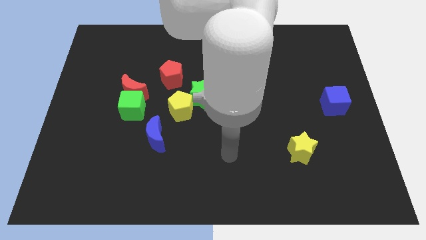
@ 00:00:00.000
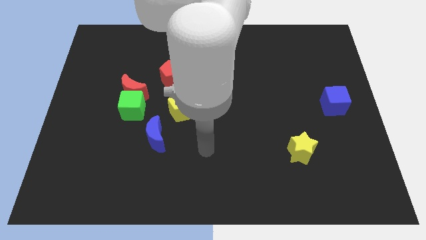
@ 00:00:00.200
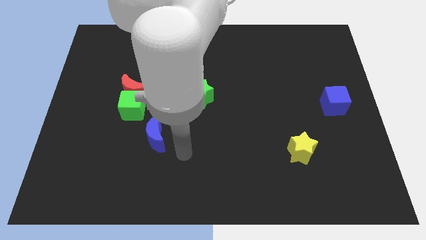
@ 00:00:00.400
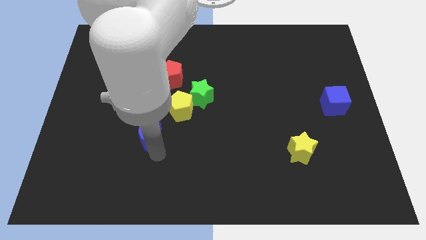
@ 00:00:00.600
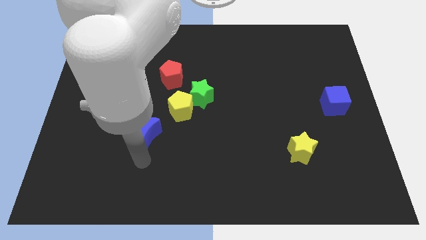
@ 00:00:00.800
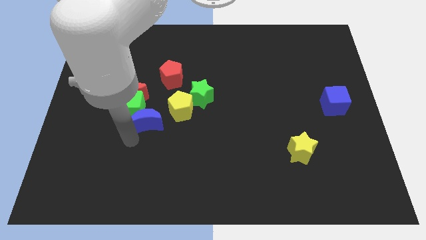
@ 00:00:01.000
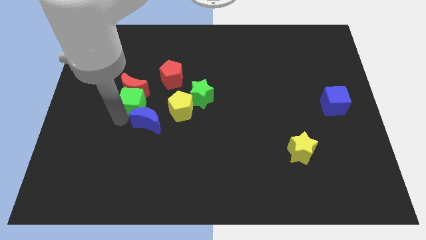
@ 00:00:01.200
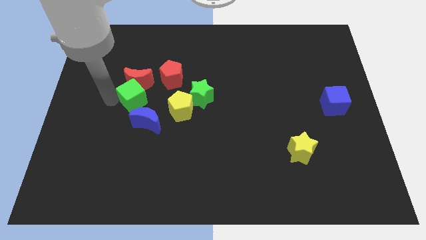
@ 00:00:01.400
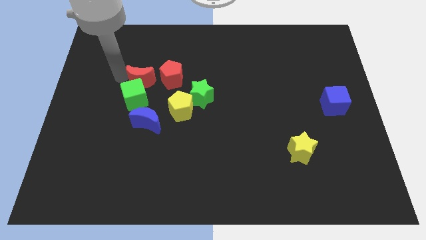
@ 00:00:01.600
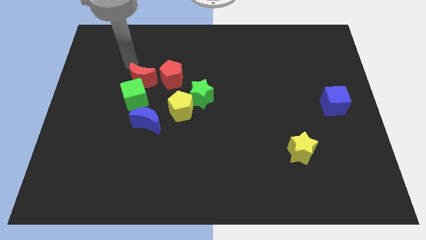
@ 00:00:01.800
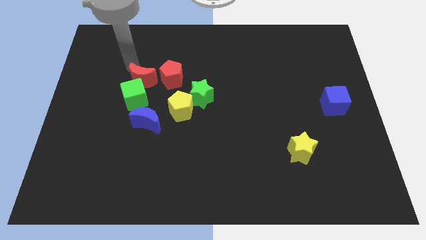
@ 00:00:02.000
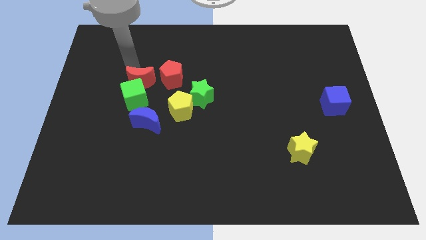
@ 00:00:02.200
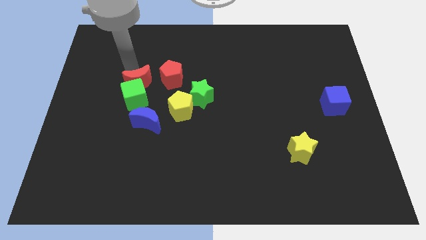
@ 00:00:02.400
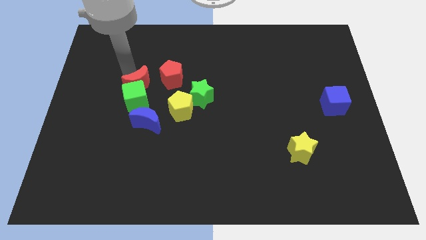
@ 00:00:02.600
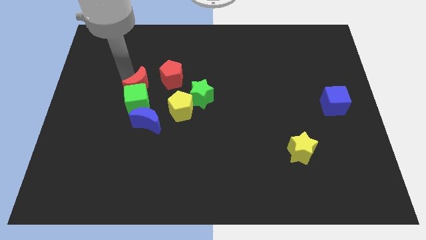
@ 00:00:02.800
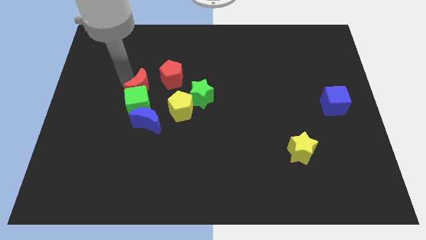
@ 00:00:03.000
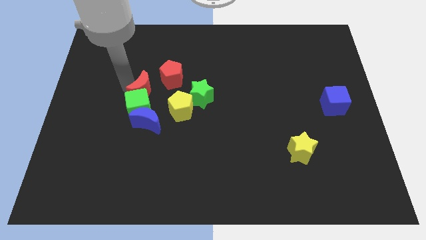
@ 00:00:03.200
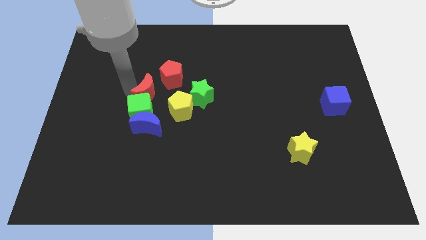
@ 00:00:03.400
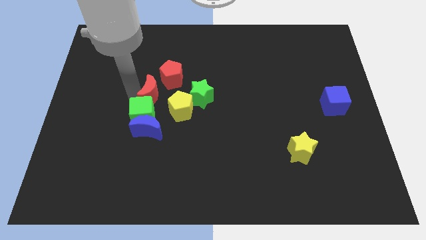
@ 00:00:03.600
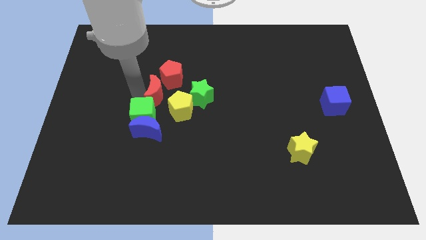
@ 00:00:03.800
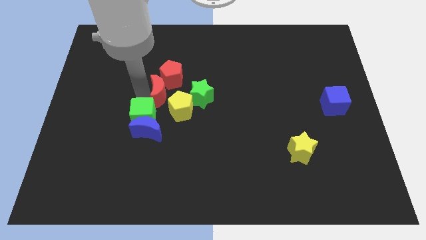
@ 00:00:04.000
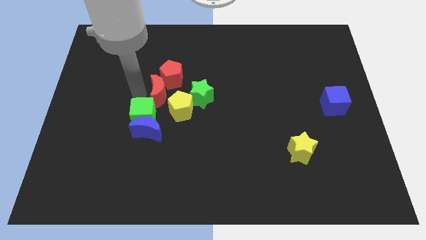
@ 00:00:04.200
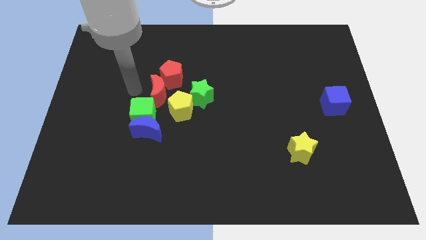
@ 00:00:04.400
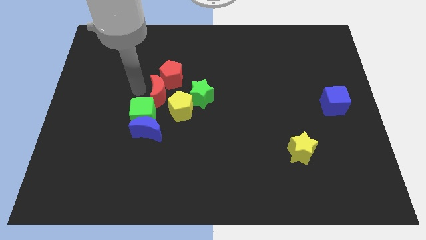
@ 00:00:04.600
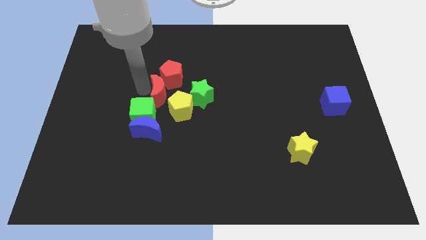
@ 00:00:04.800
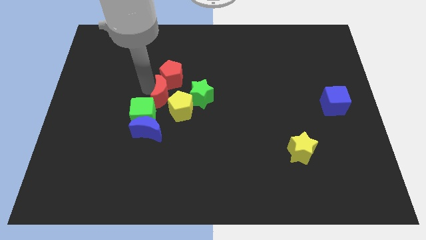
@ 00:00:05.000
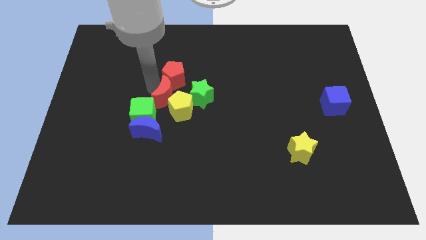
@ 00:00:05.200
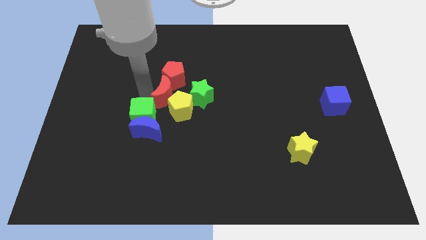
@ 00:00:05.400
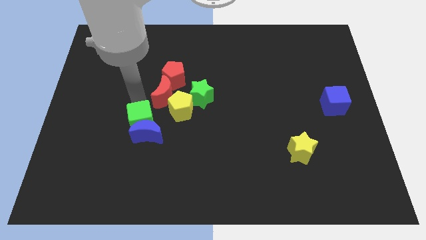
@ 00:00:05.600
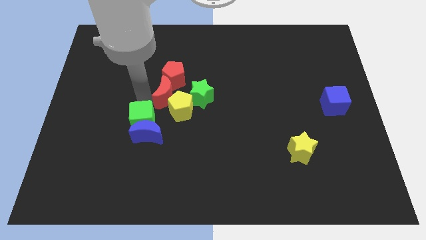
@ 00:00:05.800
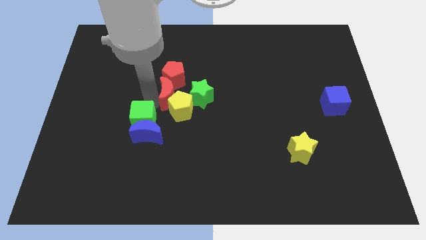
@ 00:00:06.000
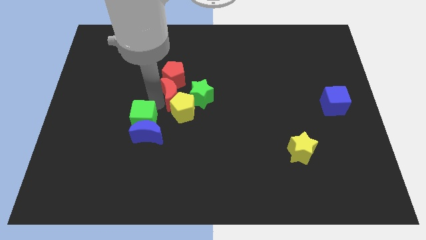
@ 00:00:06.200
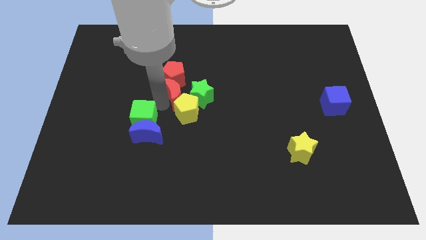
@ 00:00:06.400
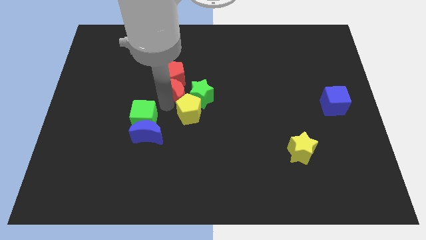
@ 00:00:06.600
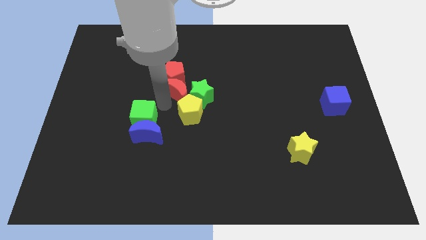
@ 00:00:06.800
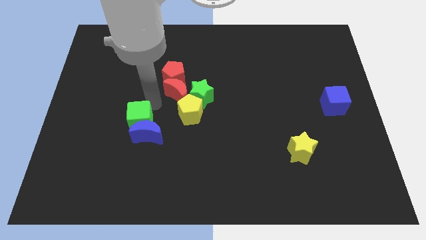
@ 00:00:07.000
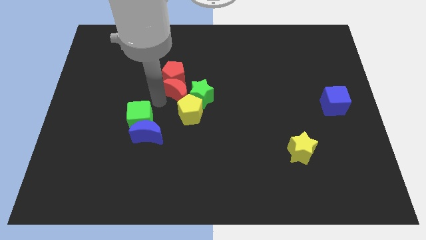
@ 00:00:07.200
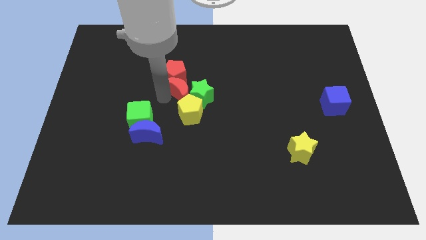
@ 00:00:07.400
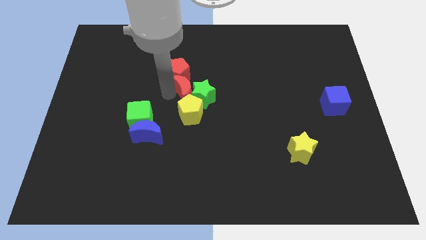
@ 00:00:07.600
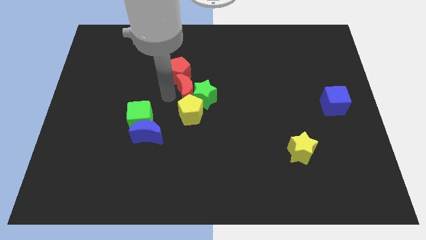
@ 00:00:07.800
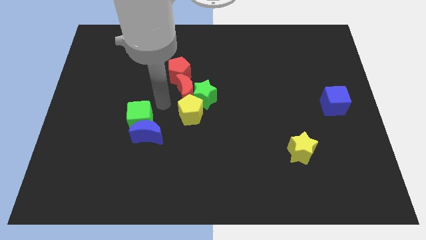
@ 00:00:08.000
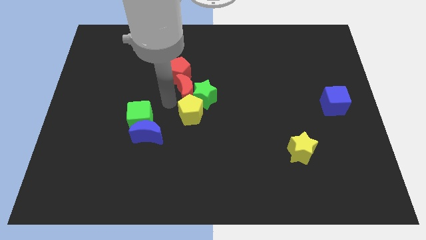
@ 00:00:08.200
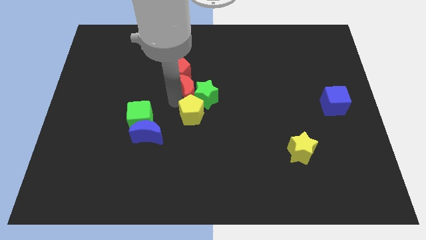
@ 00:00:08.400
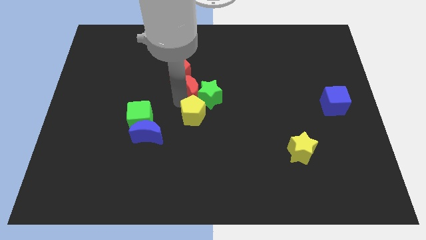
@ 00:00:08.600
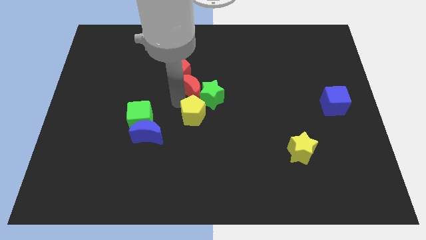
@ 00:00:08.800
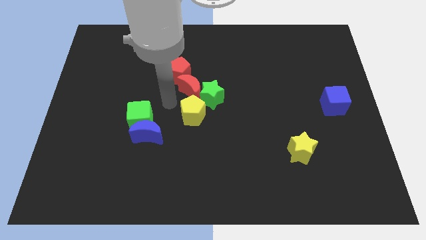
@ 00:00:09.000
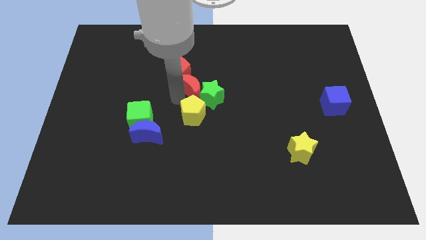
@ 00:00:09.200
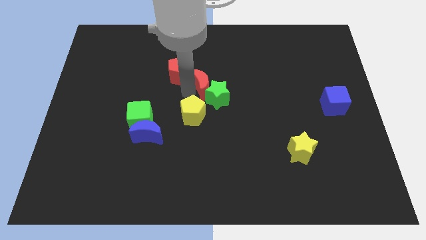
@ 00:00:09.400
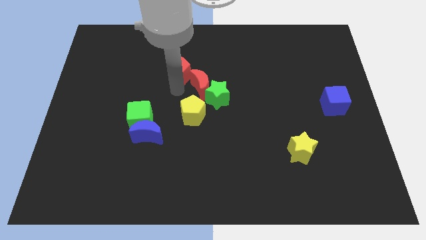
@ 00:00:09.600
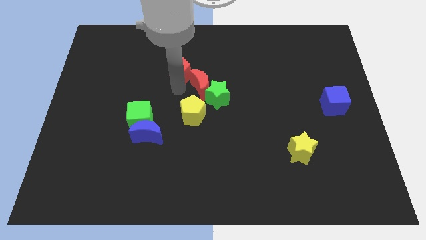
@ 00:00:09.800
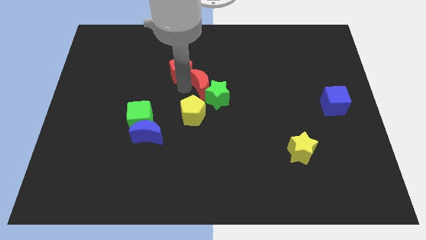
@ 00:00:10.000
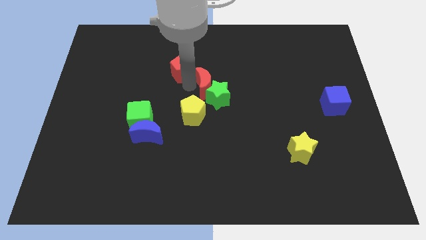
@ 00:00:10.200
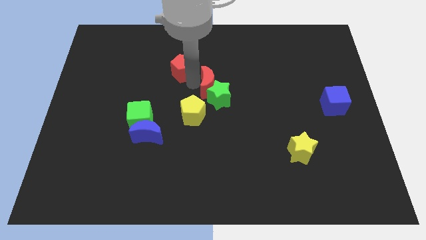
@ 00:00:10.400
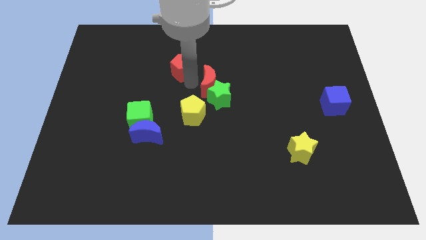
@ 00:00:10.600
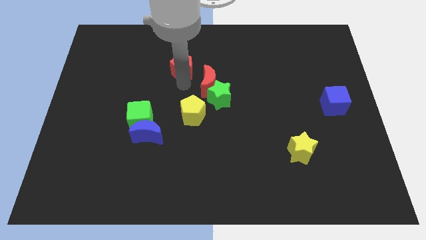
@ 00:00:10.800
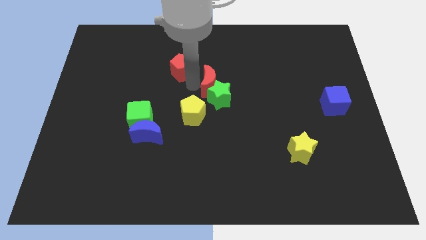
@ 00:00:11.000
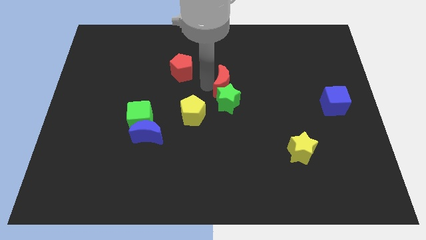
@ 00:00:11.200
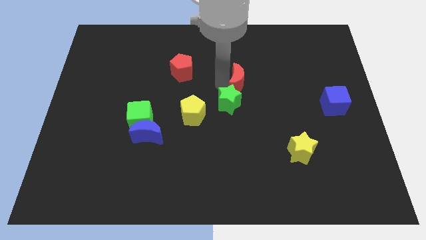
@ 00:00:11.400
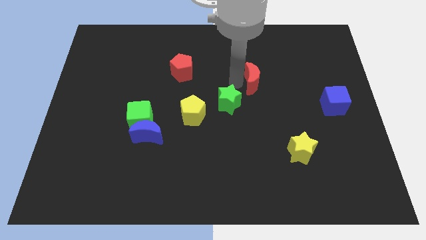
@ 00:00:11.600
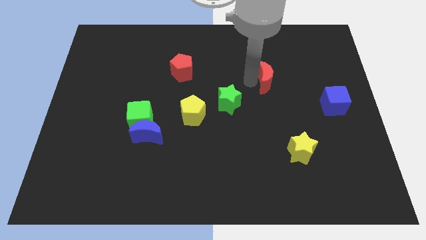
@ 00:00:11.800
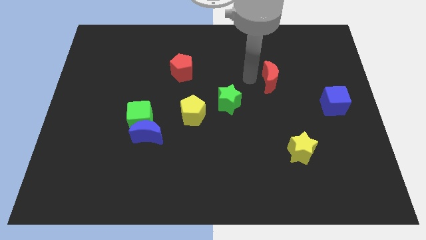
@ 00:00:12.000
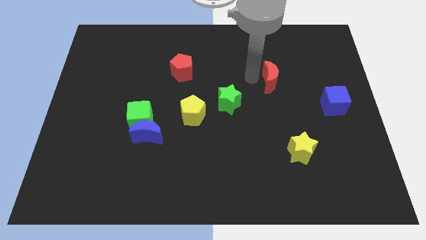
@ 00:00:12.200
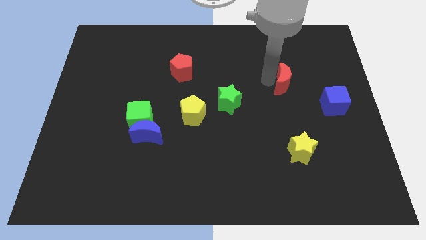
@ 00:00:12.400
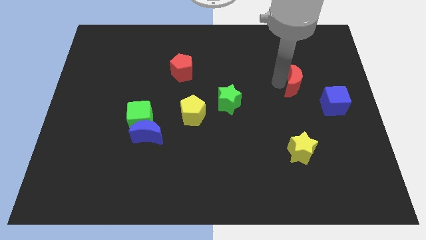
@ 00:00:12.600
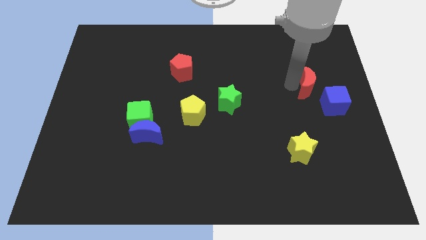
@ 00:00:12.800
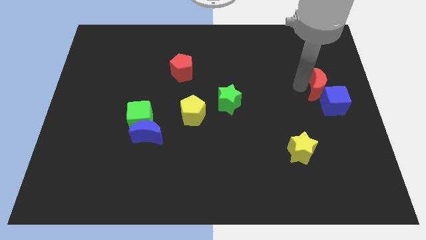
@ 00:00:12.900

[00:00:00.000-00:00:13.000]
push the red moon to the right side of the board

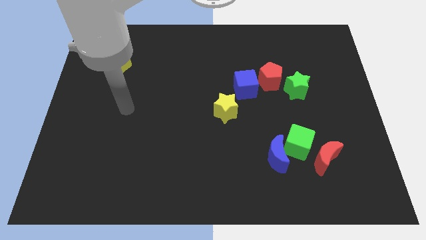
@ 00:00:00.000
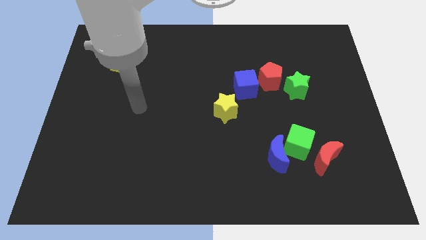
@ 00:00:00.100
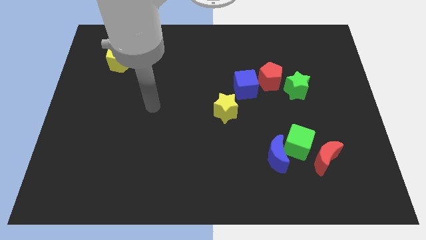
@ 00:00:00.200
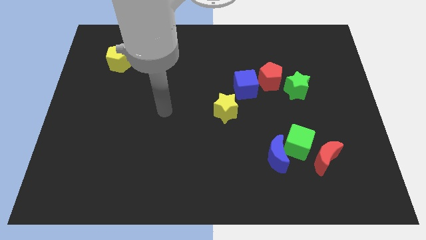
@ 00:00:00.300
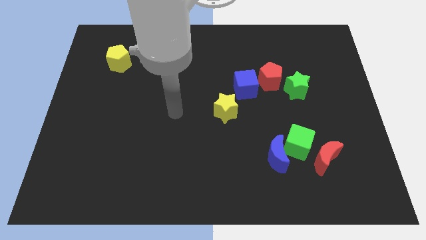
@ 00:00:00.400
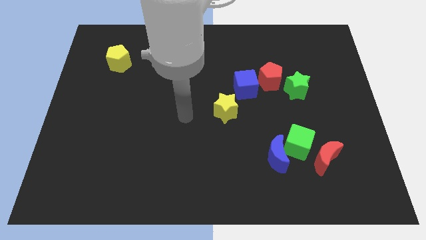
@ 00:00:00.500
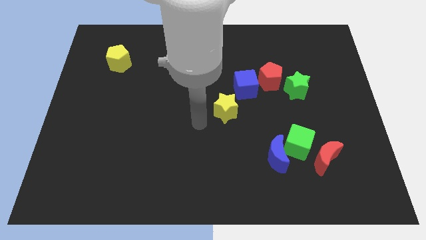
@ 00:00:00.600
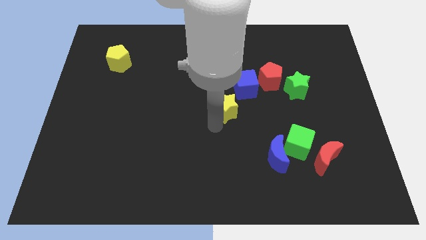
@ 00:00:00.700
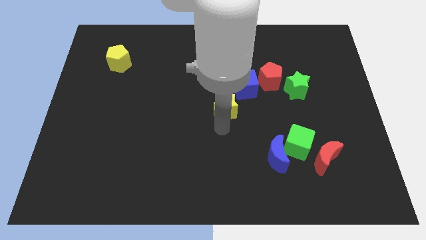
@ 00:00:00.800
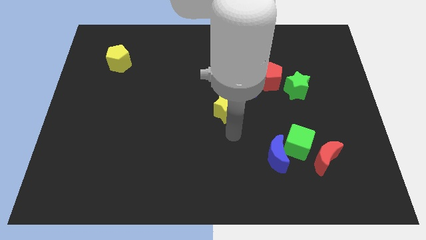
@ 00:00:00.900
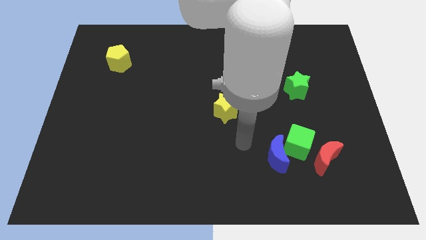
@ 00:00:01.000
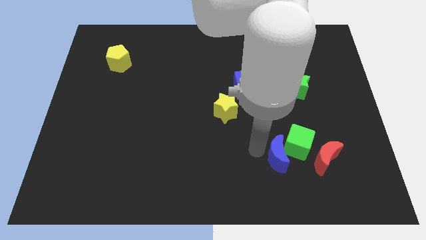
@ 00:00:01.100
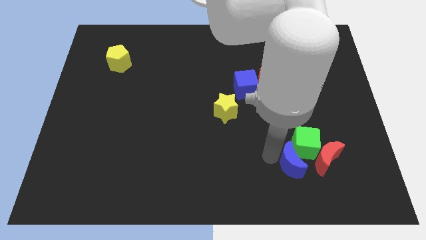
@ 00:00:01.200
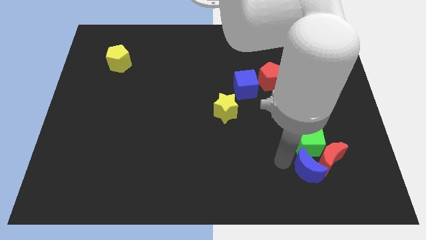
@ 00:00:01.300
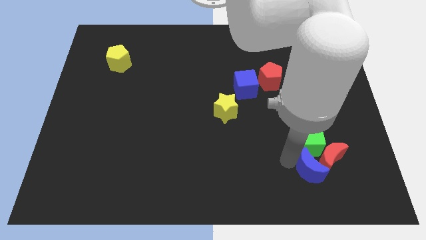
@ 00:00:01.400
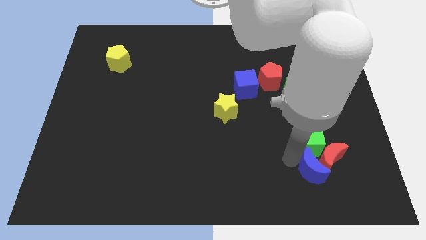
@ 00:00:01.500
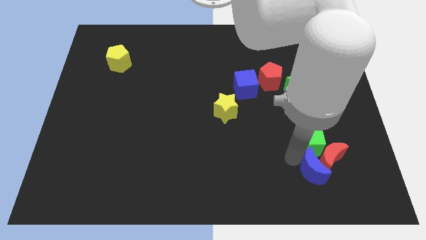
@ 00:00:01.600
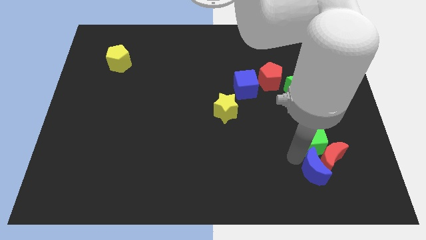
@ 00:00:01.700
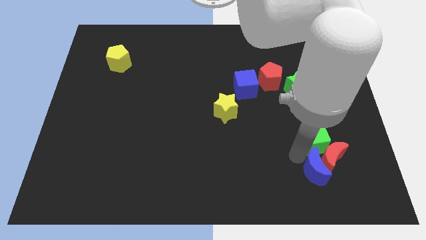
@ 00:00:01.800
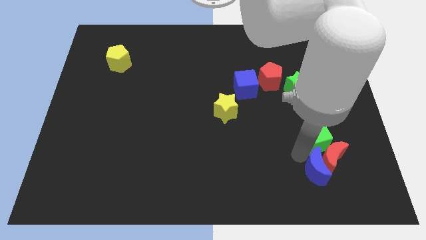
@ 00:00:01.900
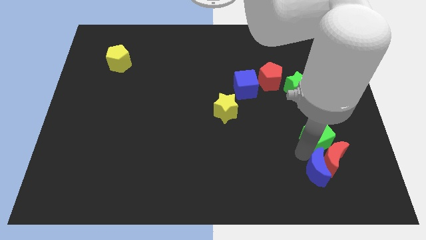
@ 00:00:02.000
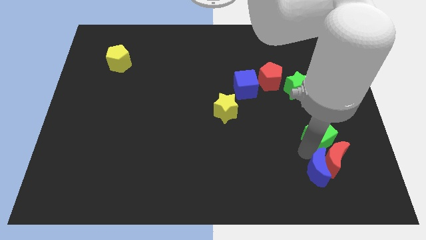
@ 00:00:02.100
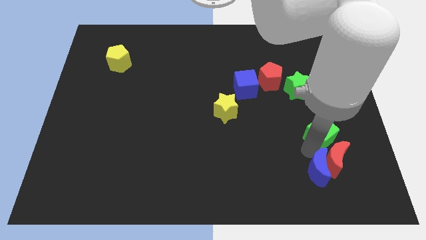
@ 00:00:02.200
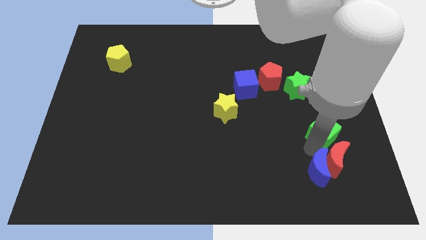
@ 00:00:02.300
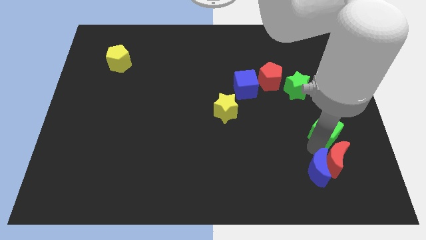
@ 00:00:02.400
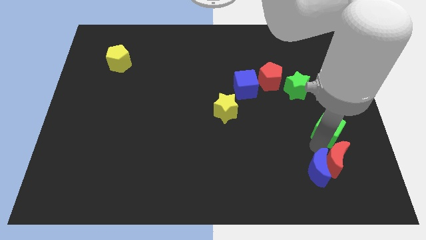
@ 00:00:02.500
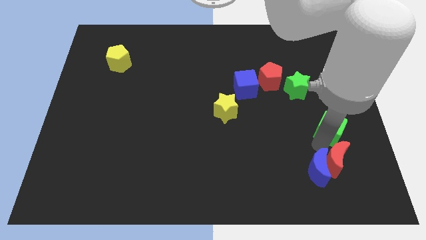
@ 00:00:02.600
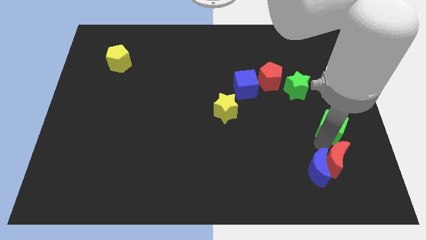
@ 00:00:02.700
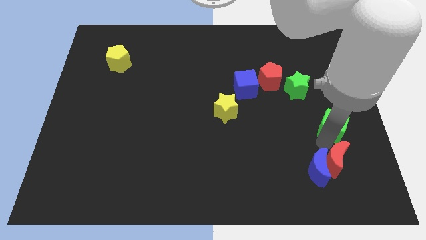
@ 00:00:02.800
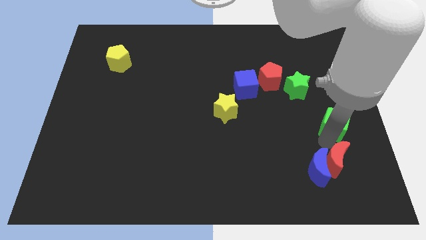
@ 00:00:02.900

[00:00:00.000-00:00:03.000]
put the green cube to the center right
